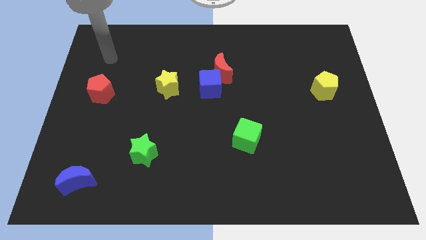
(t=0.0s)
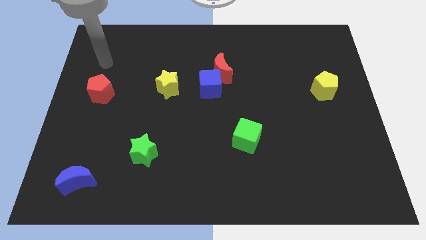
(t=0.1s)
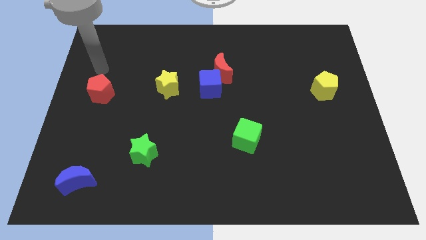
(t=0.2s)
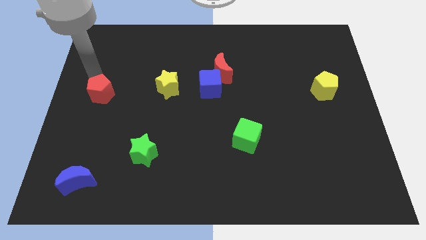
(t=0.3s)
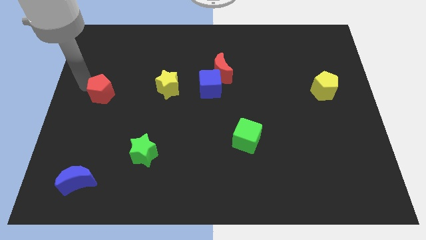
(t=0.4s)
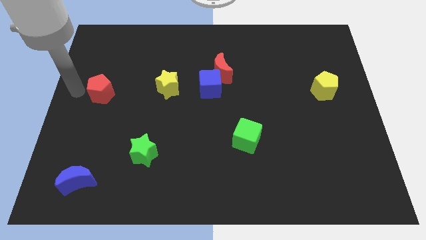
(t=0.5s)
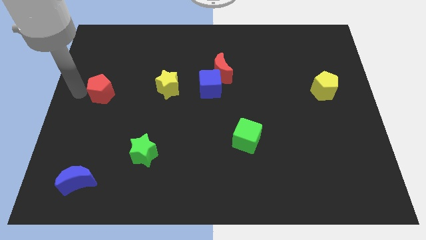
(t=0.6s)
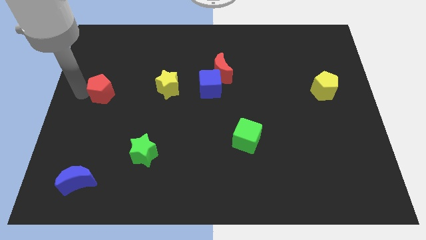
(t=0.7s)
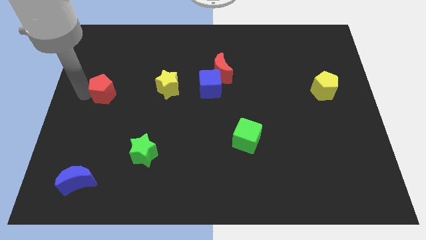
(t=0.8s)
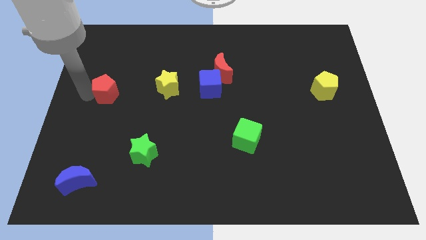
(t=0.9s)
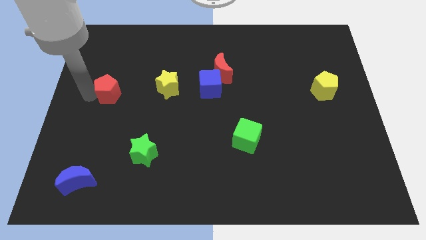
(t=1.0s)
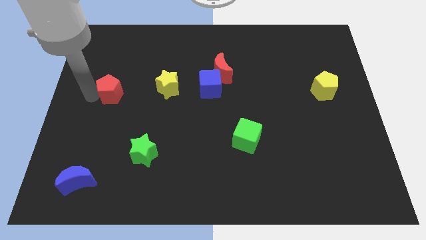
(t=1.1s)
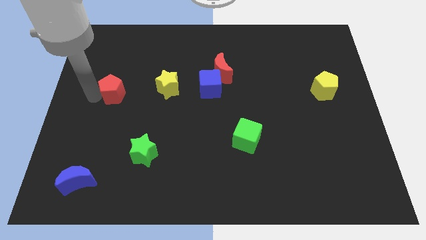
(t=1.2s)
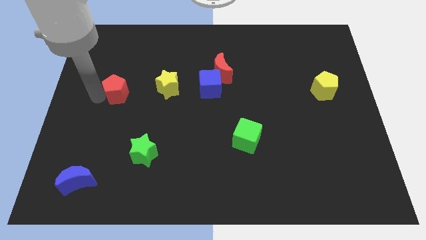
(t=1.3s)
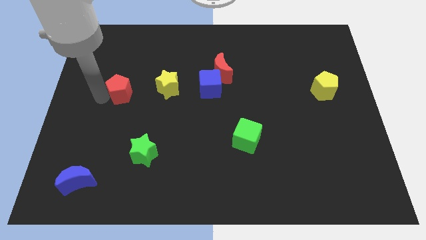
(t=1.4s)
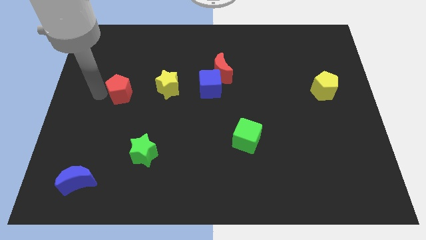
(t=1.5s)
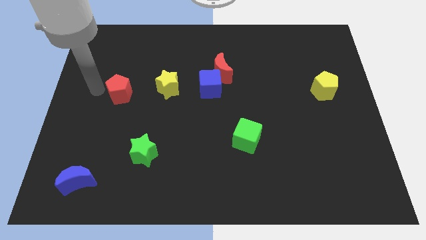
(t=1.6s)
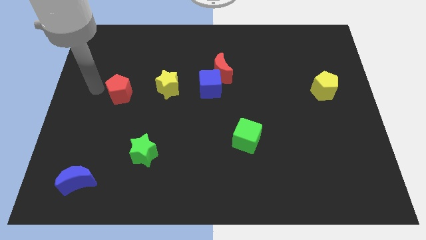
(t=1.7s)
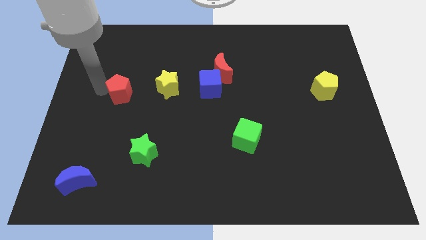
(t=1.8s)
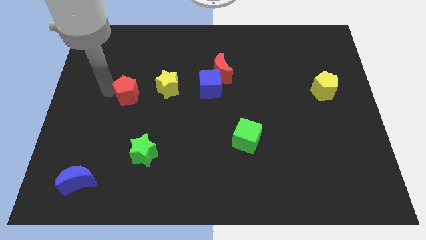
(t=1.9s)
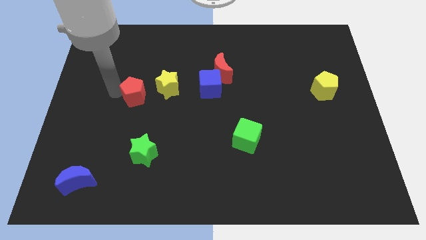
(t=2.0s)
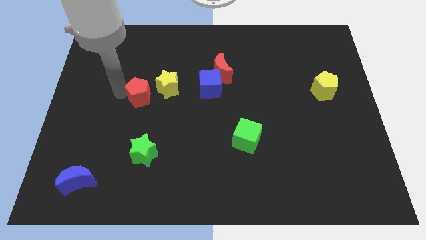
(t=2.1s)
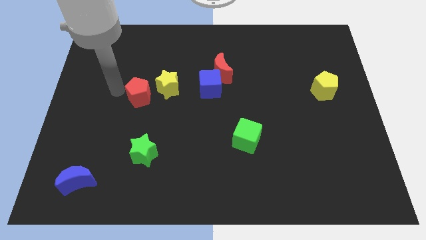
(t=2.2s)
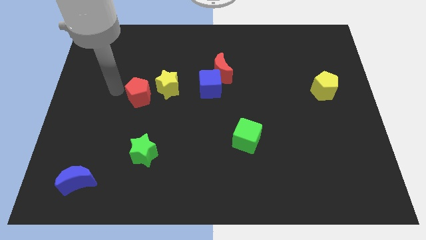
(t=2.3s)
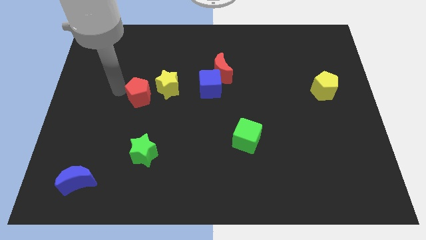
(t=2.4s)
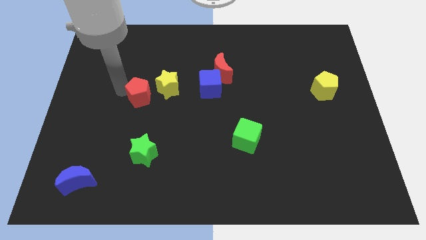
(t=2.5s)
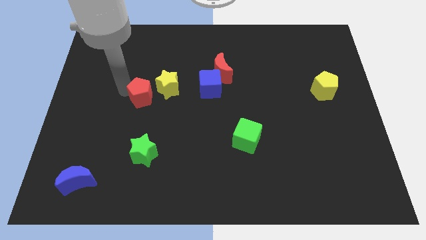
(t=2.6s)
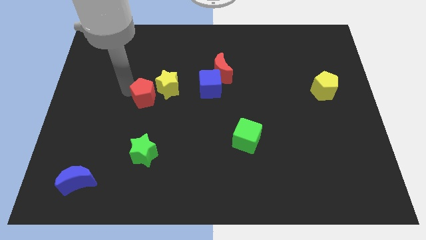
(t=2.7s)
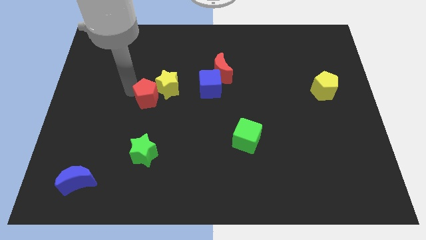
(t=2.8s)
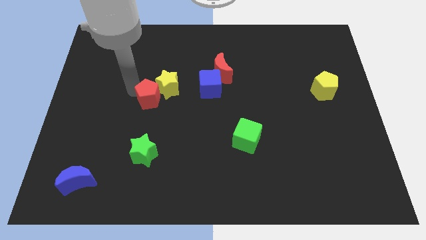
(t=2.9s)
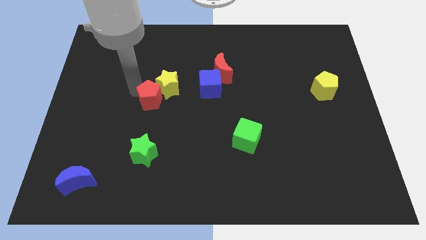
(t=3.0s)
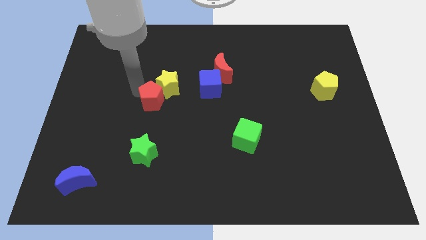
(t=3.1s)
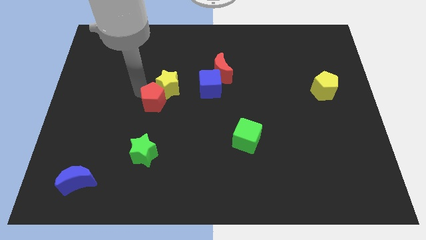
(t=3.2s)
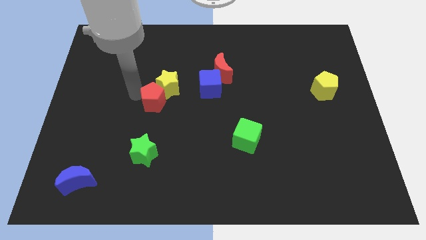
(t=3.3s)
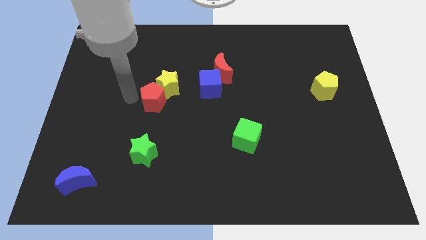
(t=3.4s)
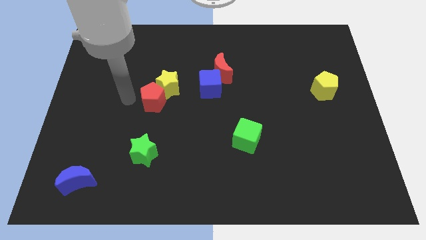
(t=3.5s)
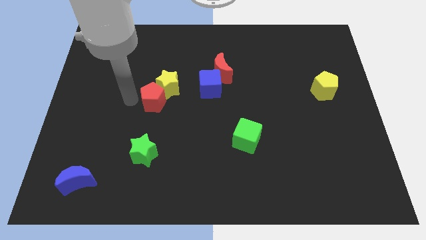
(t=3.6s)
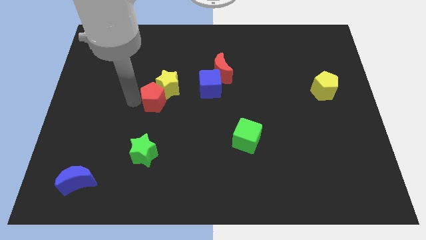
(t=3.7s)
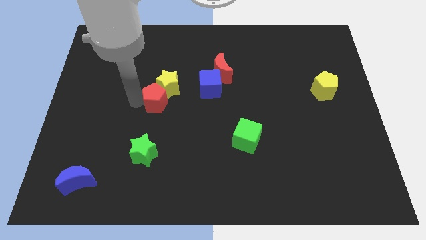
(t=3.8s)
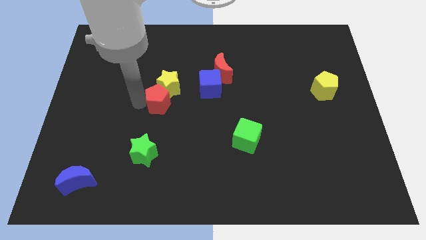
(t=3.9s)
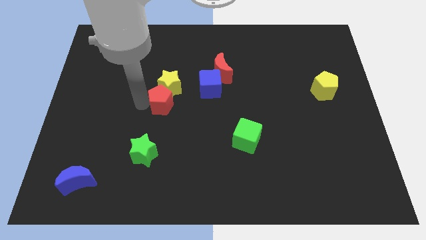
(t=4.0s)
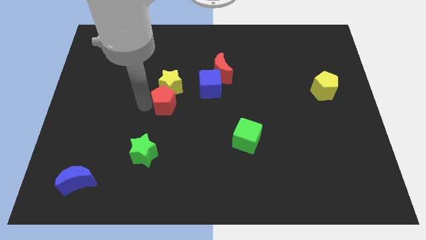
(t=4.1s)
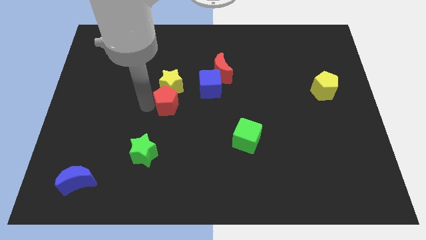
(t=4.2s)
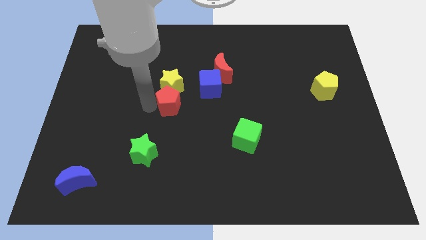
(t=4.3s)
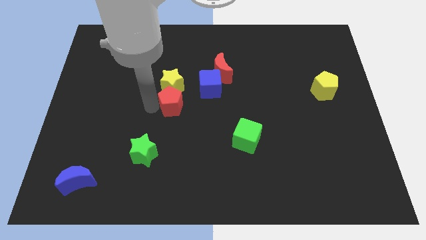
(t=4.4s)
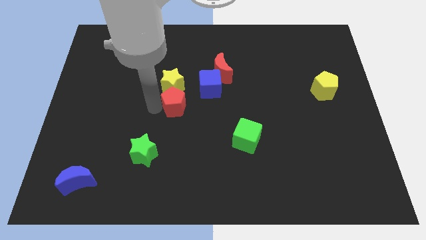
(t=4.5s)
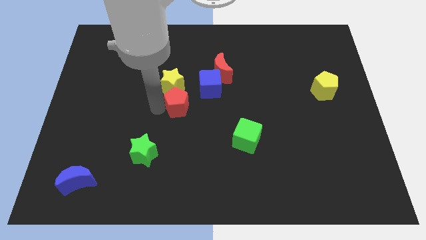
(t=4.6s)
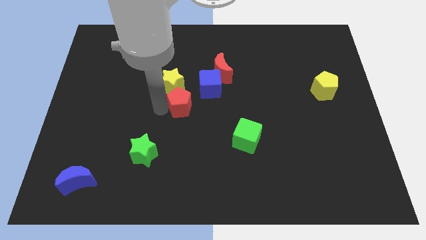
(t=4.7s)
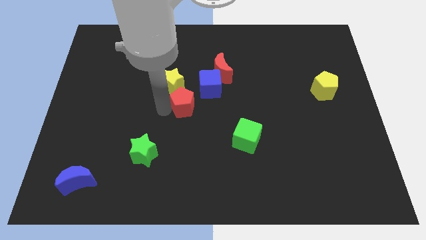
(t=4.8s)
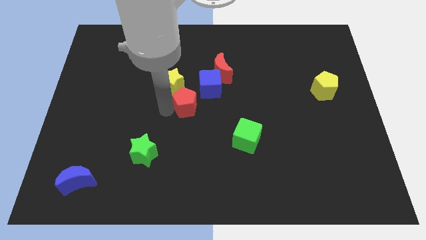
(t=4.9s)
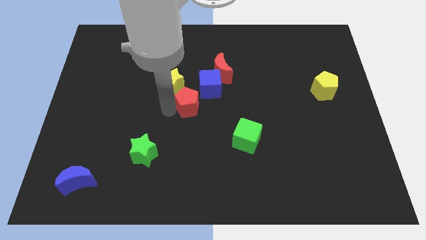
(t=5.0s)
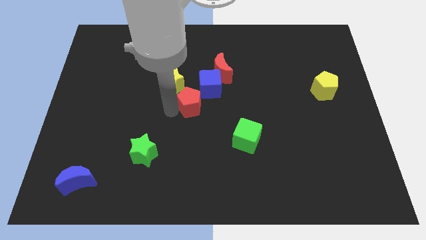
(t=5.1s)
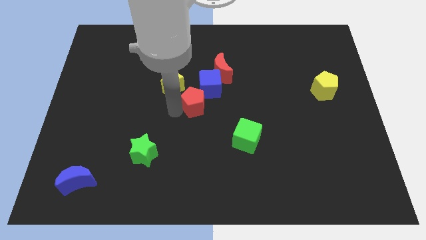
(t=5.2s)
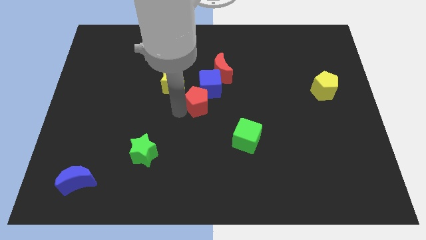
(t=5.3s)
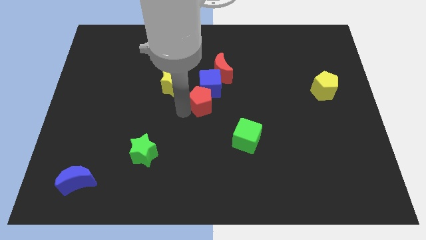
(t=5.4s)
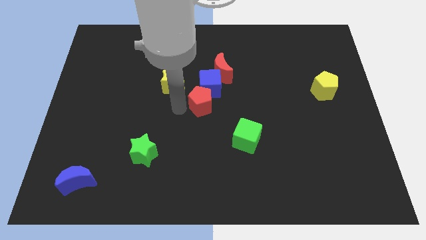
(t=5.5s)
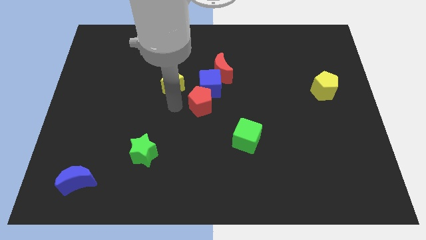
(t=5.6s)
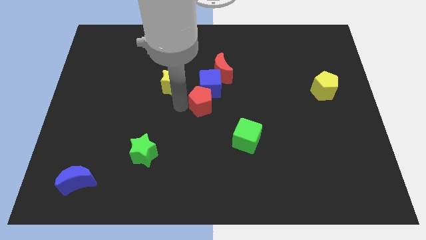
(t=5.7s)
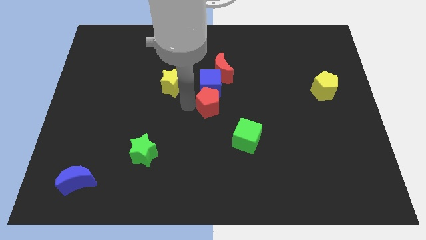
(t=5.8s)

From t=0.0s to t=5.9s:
move the red pentagon diagonally down and to the right of the blue cube

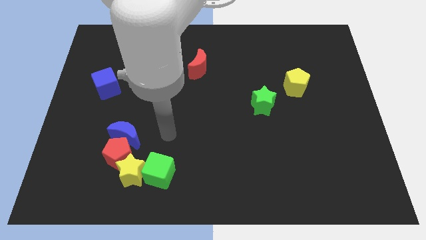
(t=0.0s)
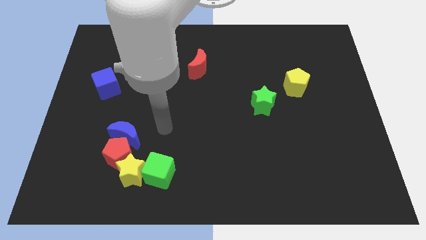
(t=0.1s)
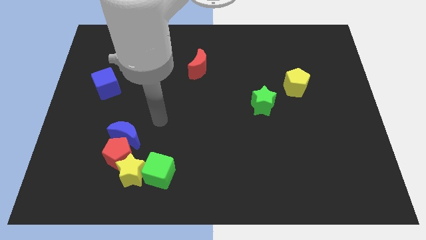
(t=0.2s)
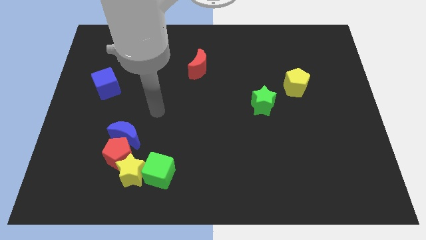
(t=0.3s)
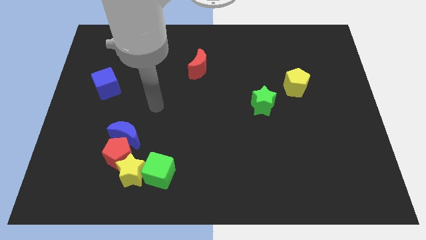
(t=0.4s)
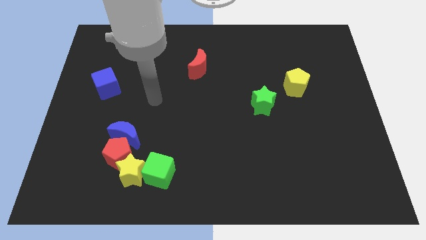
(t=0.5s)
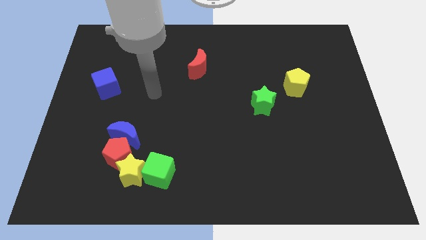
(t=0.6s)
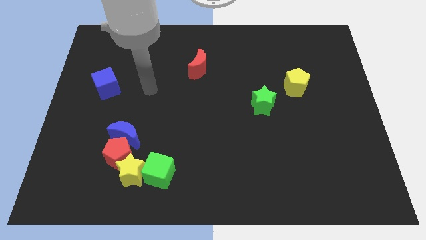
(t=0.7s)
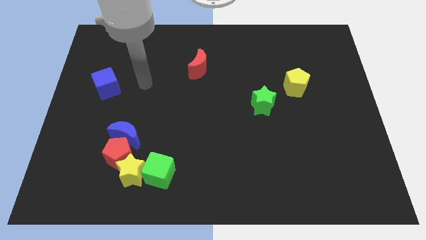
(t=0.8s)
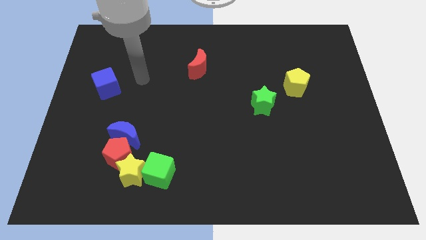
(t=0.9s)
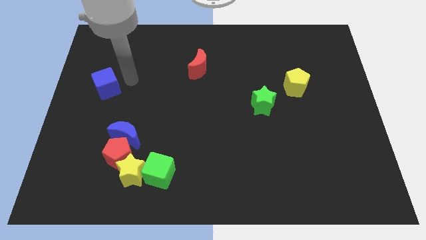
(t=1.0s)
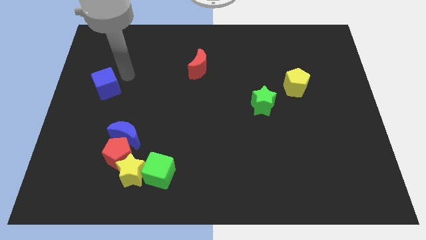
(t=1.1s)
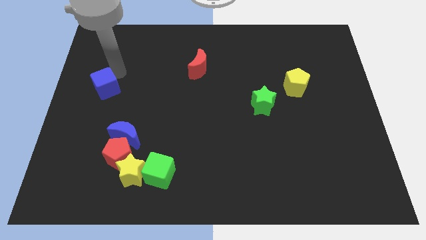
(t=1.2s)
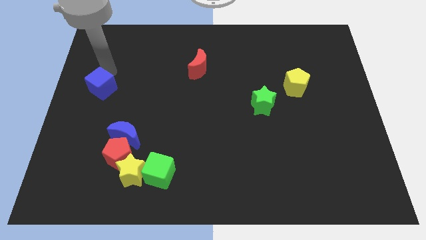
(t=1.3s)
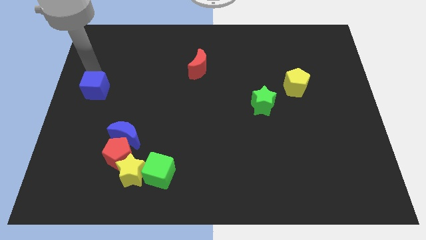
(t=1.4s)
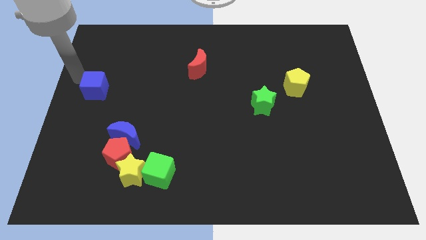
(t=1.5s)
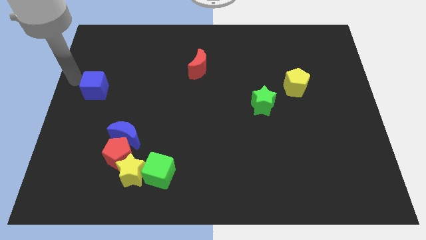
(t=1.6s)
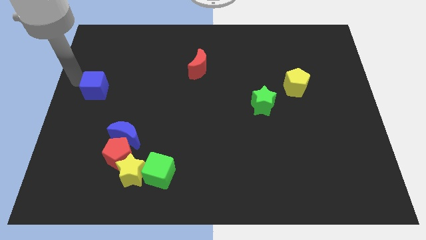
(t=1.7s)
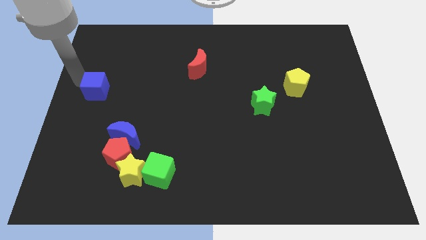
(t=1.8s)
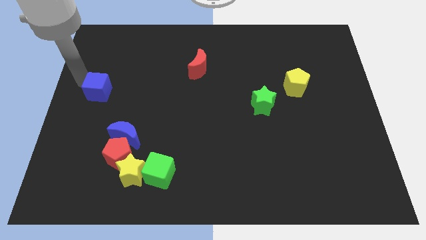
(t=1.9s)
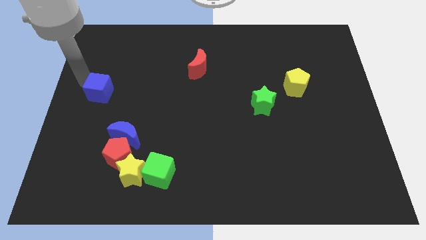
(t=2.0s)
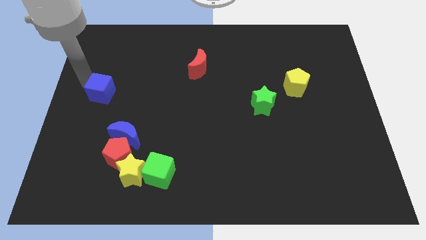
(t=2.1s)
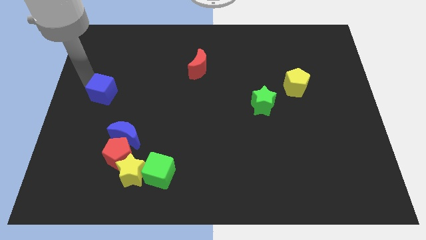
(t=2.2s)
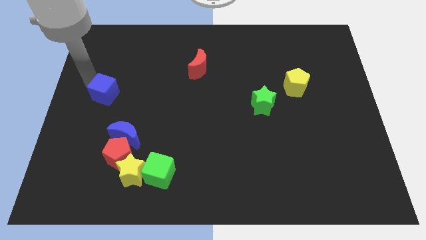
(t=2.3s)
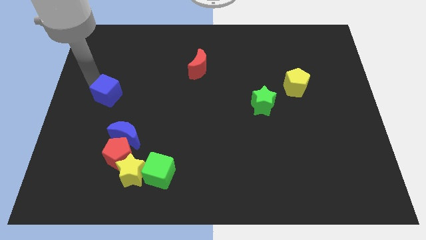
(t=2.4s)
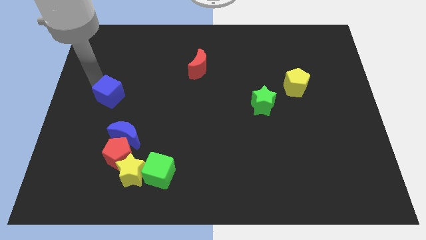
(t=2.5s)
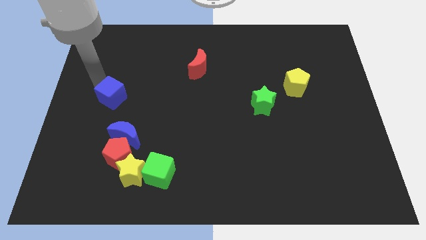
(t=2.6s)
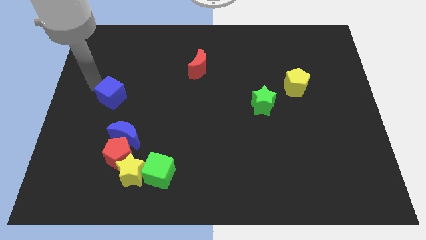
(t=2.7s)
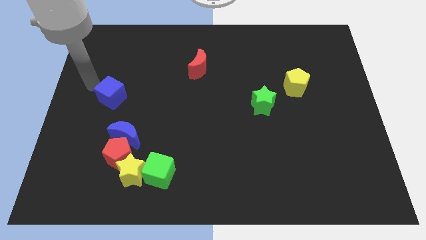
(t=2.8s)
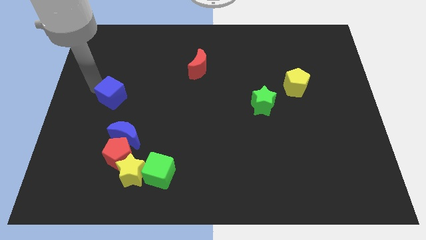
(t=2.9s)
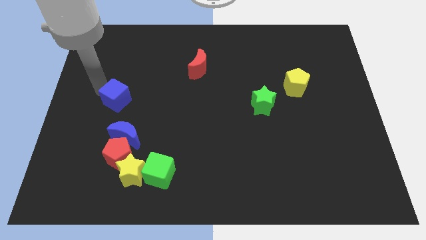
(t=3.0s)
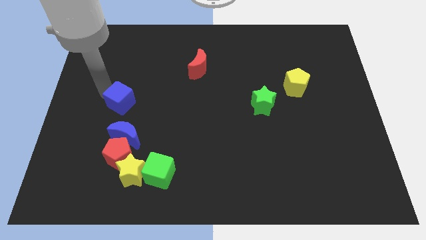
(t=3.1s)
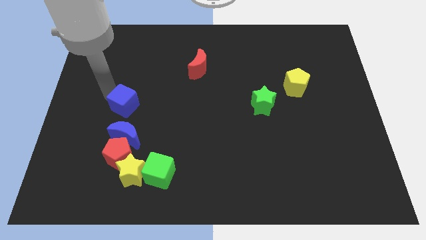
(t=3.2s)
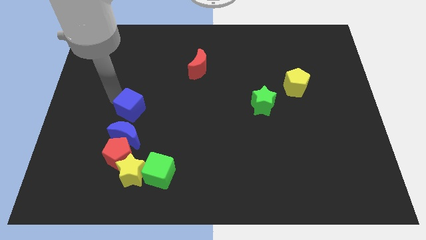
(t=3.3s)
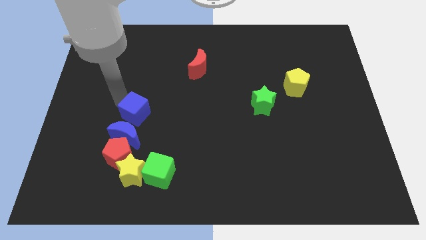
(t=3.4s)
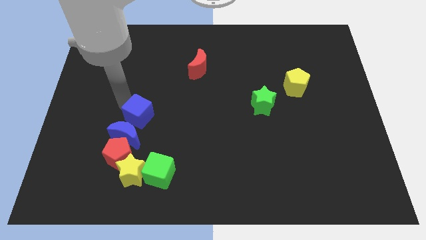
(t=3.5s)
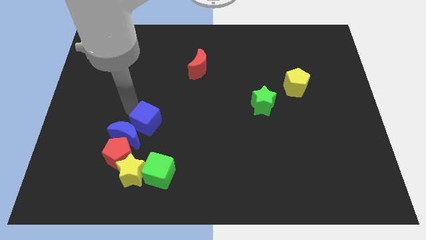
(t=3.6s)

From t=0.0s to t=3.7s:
put the blue cube to the top of the green cube
